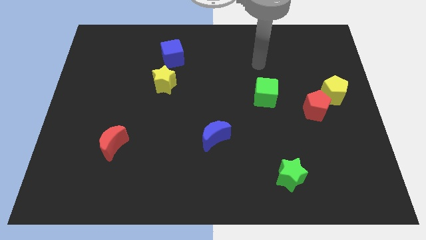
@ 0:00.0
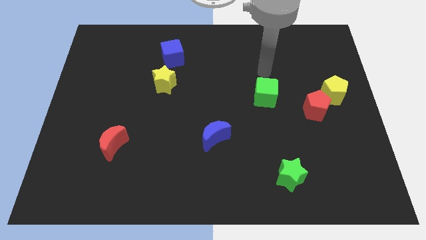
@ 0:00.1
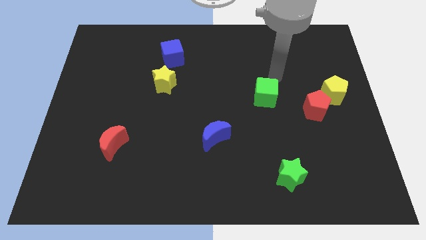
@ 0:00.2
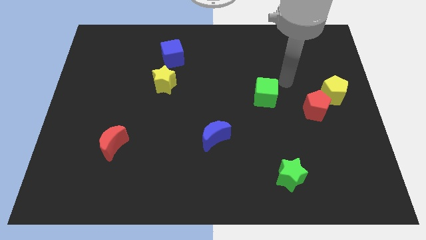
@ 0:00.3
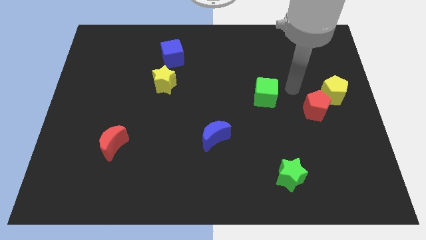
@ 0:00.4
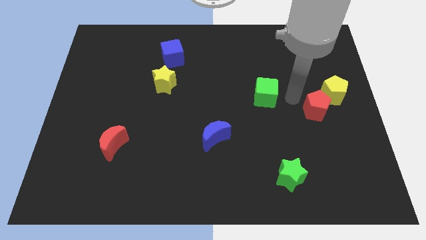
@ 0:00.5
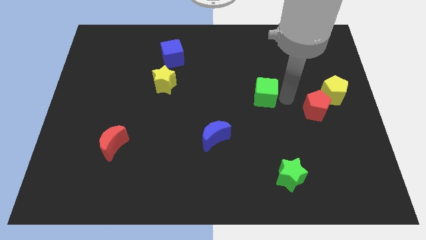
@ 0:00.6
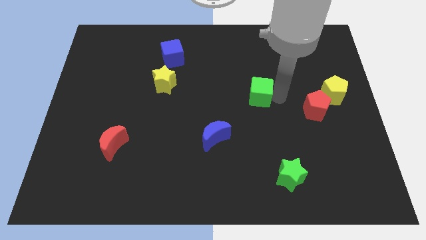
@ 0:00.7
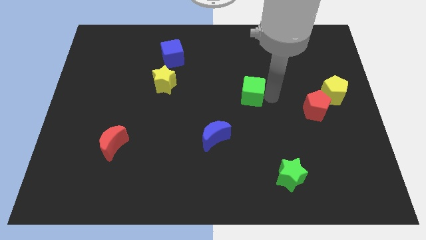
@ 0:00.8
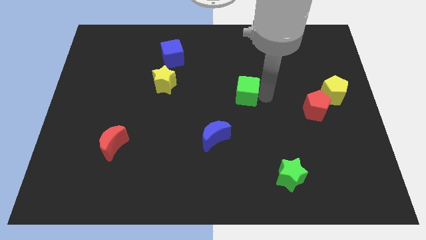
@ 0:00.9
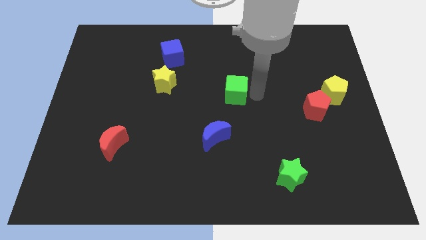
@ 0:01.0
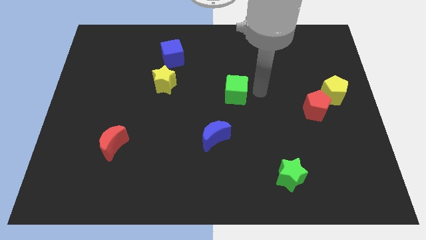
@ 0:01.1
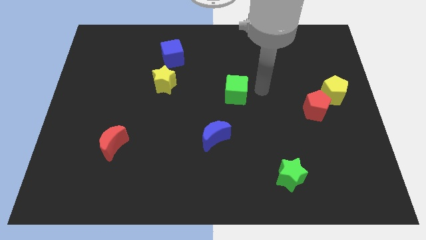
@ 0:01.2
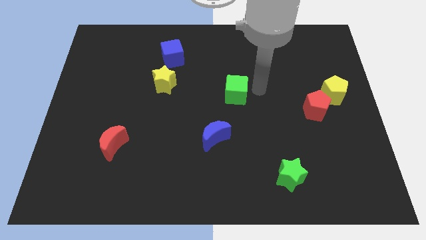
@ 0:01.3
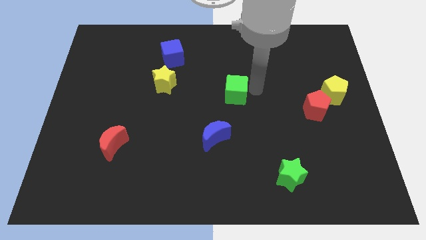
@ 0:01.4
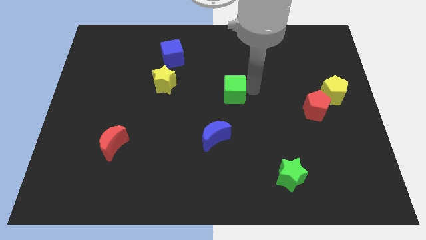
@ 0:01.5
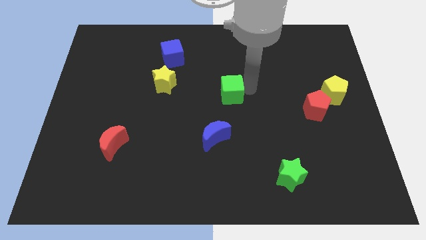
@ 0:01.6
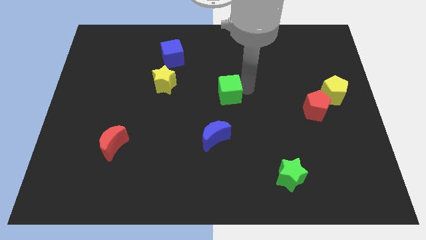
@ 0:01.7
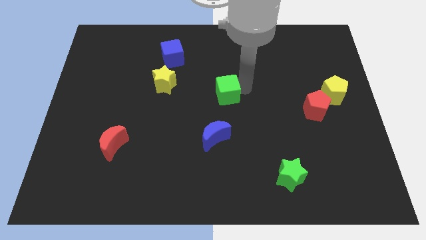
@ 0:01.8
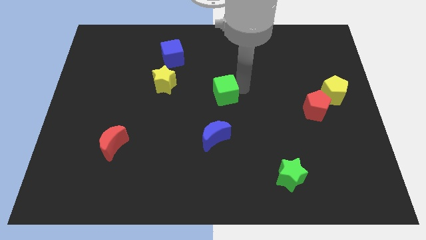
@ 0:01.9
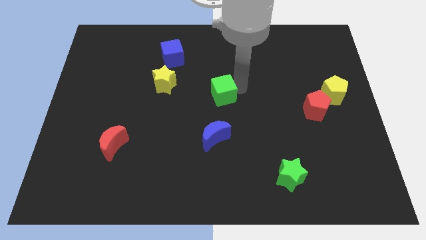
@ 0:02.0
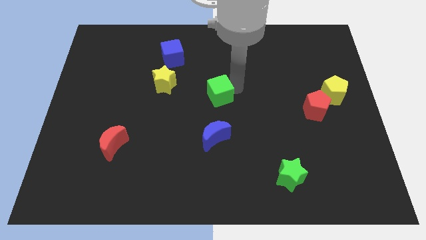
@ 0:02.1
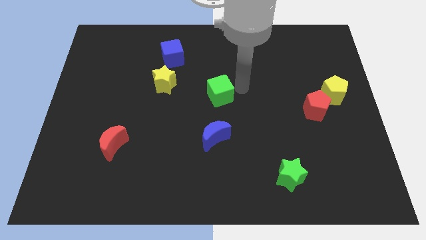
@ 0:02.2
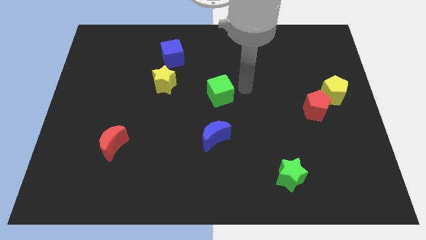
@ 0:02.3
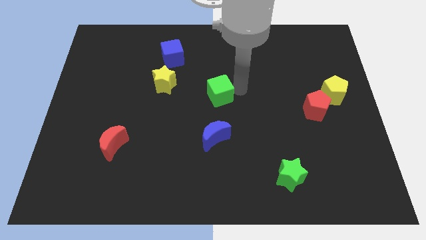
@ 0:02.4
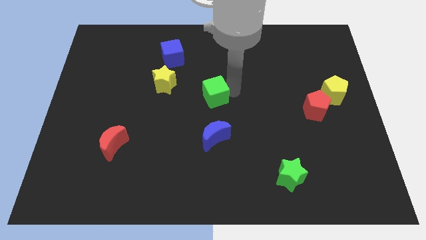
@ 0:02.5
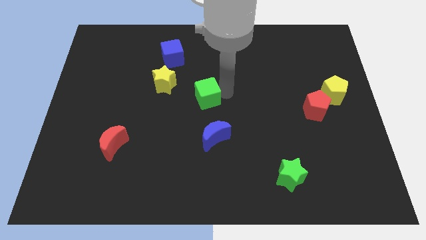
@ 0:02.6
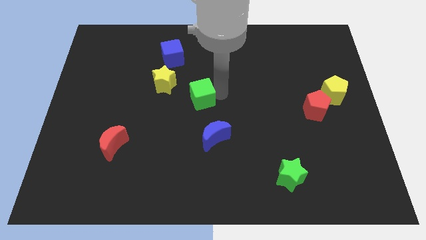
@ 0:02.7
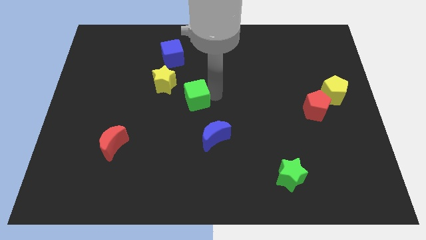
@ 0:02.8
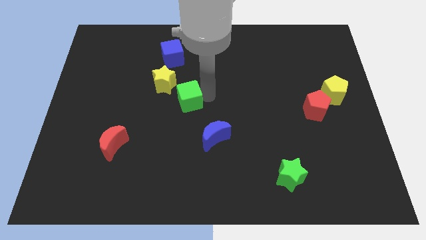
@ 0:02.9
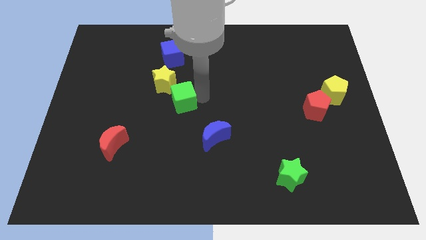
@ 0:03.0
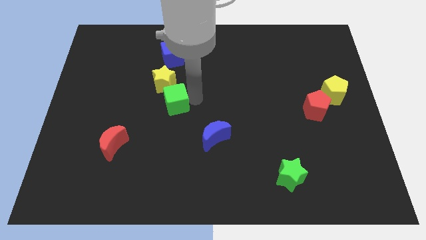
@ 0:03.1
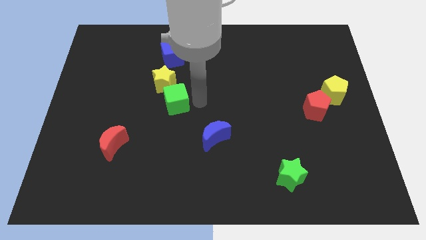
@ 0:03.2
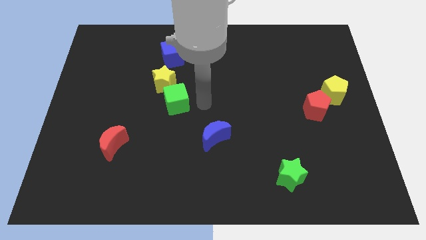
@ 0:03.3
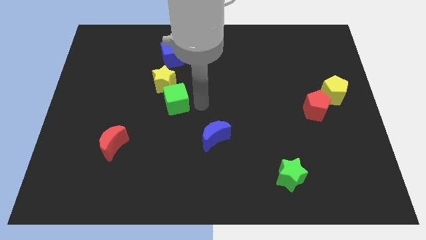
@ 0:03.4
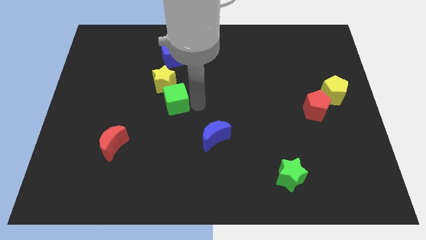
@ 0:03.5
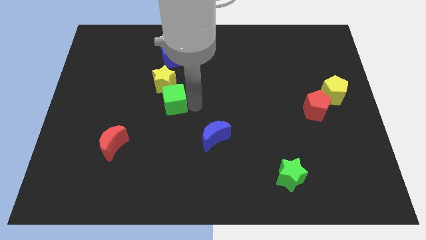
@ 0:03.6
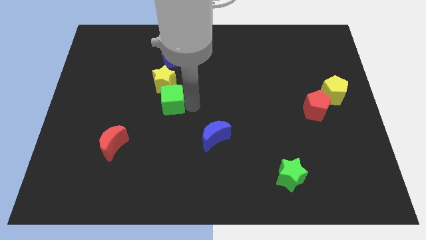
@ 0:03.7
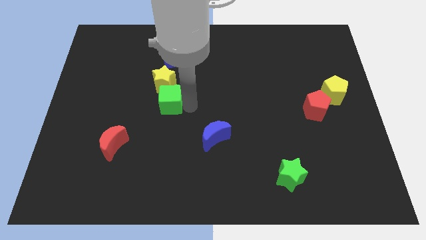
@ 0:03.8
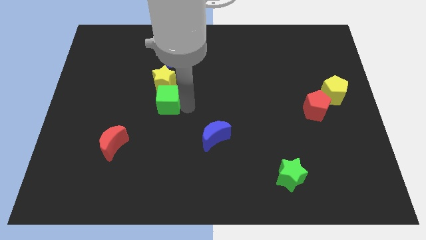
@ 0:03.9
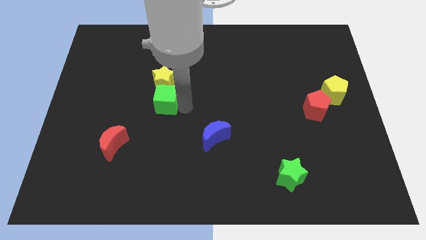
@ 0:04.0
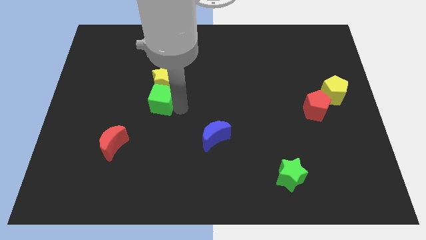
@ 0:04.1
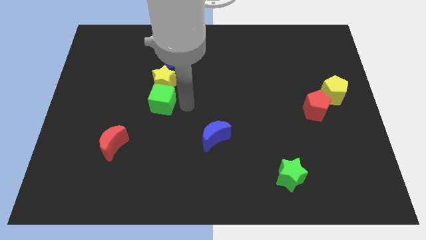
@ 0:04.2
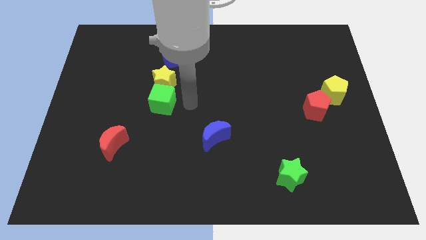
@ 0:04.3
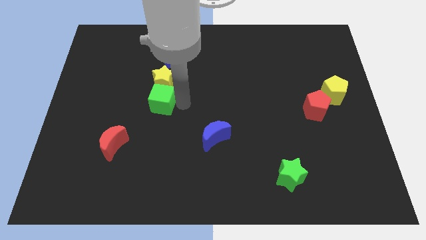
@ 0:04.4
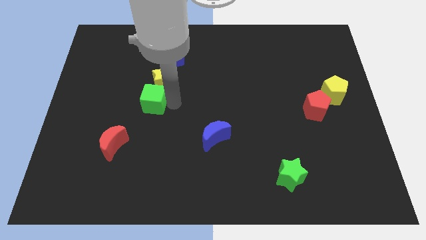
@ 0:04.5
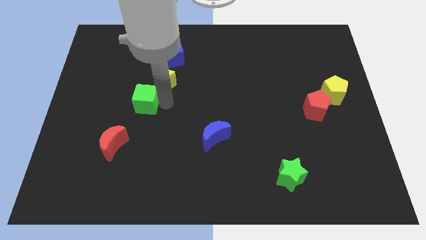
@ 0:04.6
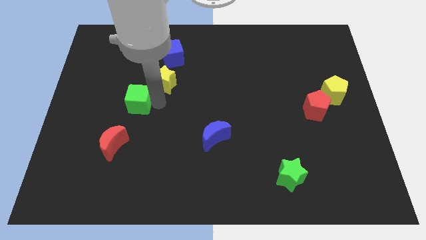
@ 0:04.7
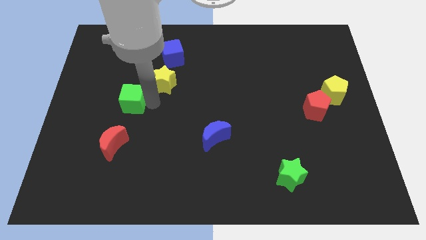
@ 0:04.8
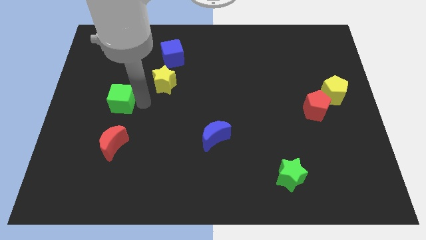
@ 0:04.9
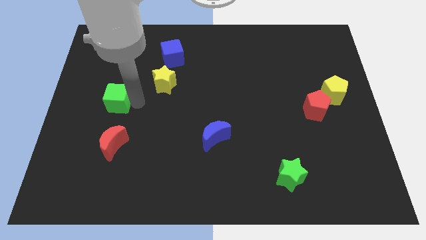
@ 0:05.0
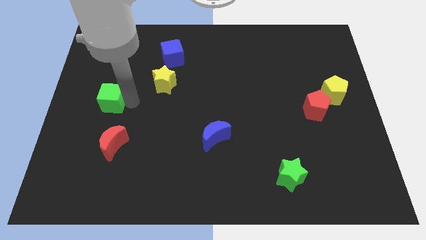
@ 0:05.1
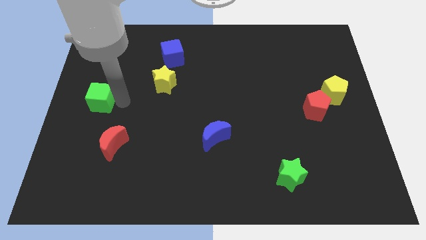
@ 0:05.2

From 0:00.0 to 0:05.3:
slide the green cube to the left side of the board

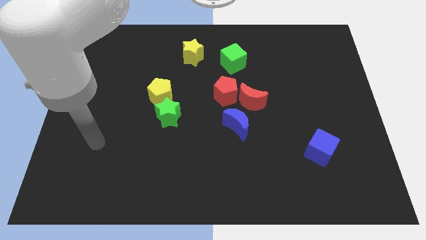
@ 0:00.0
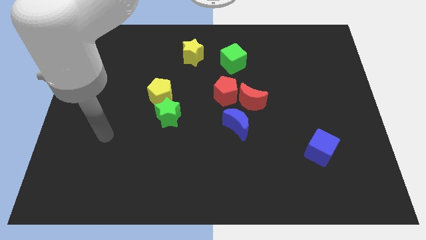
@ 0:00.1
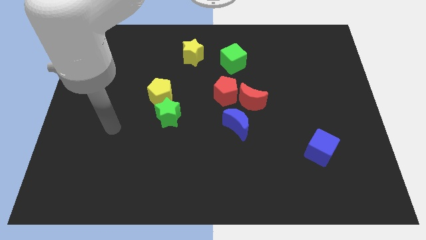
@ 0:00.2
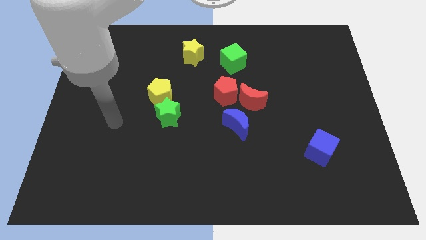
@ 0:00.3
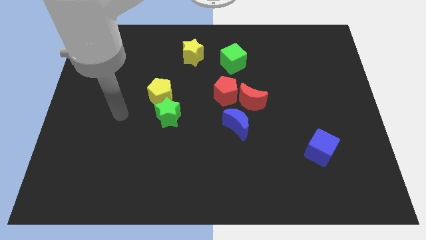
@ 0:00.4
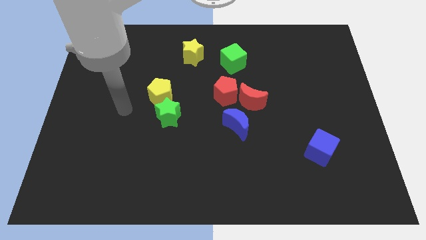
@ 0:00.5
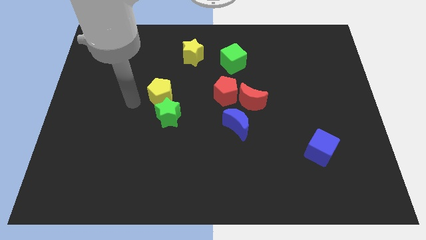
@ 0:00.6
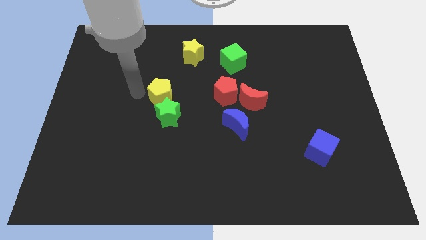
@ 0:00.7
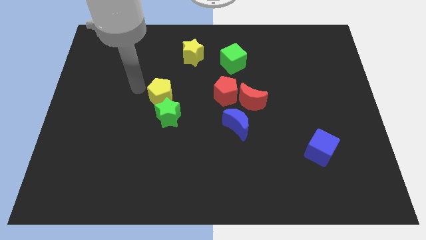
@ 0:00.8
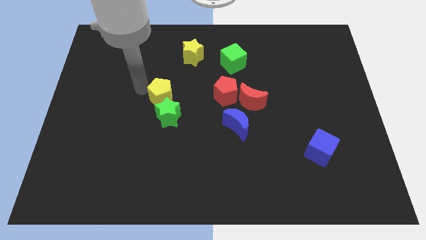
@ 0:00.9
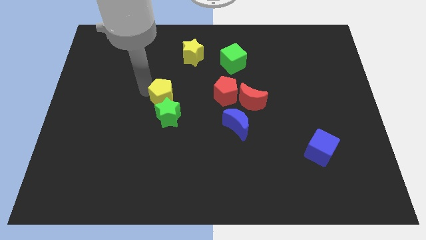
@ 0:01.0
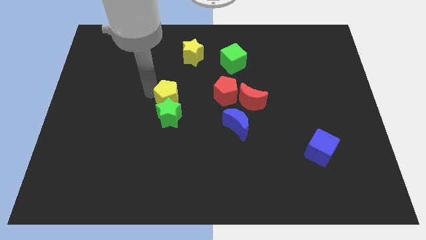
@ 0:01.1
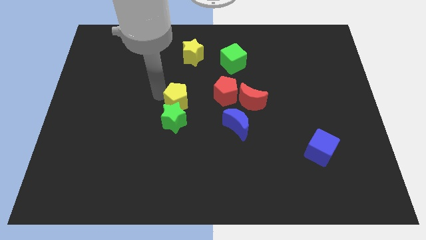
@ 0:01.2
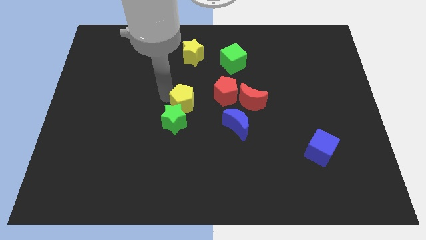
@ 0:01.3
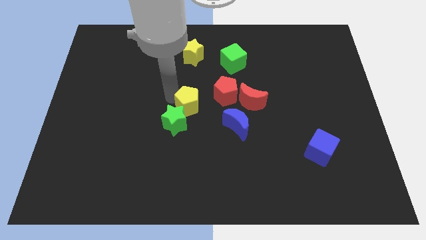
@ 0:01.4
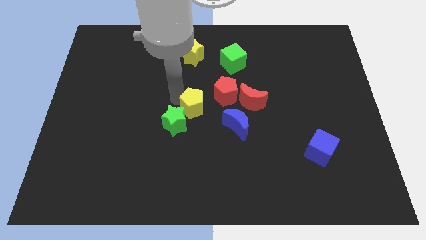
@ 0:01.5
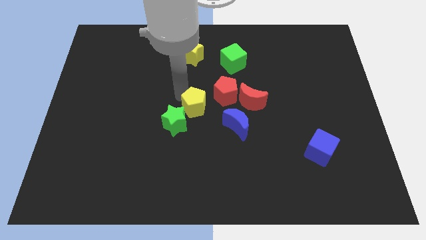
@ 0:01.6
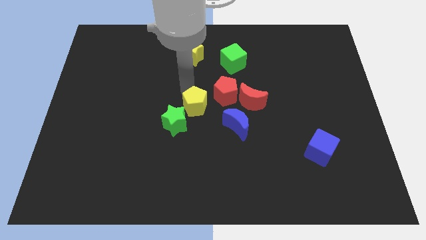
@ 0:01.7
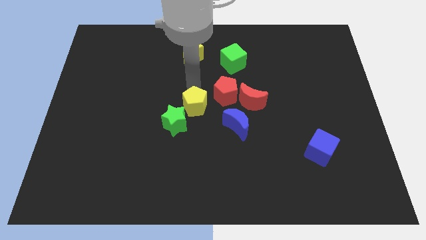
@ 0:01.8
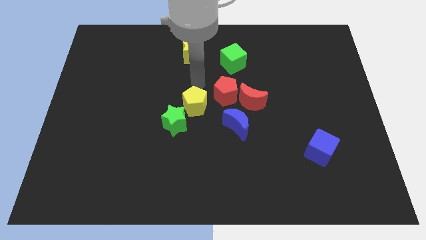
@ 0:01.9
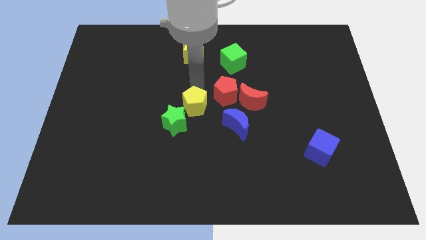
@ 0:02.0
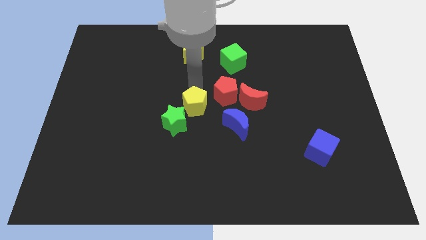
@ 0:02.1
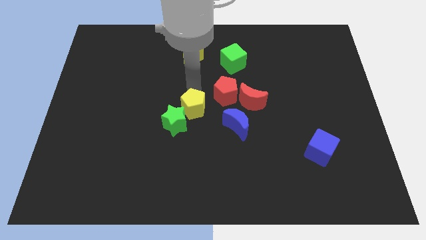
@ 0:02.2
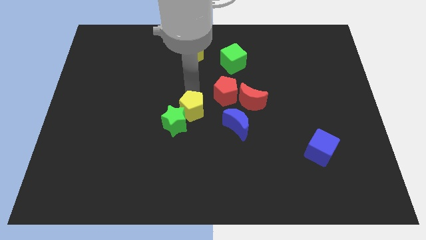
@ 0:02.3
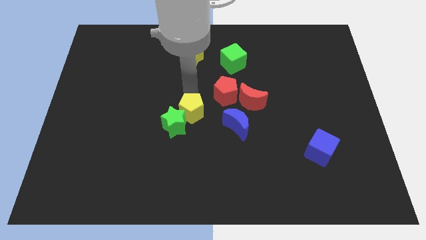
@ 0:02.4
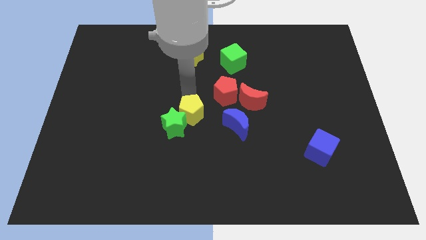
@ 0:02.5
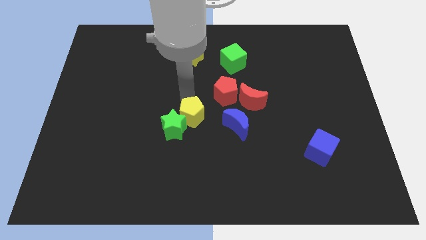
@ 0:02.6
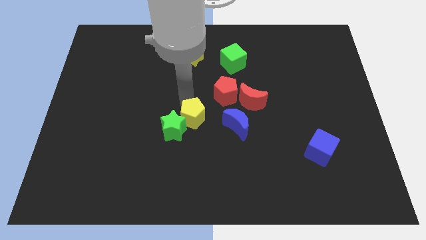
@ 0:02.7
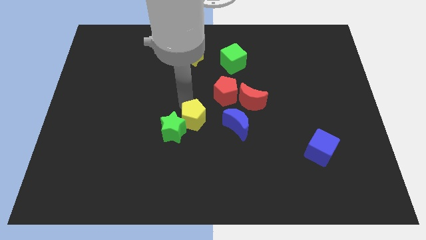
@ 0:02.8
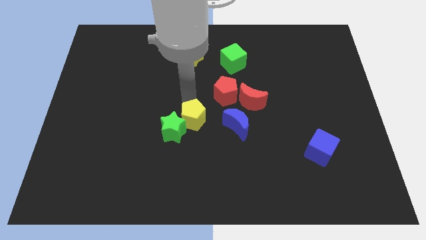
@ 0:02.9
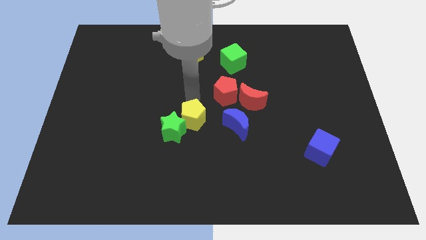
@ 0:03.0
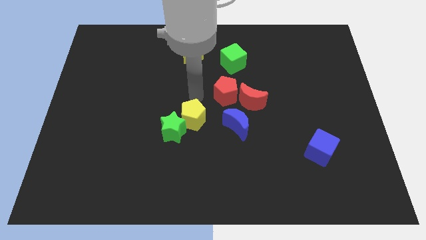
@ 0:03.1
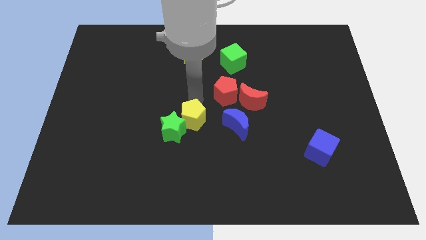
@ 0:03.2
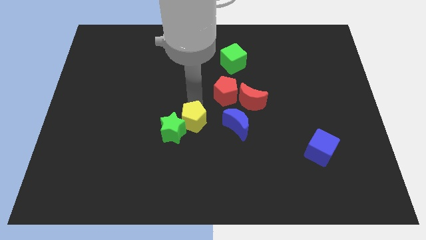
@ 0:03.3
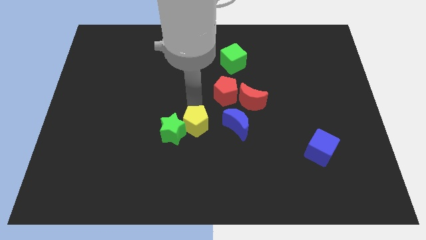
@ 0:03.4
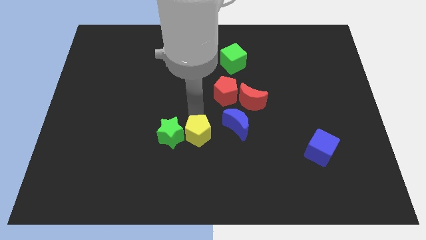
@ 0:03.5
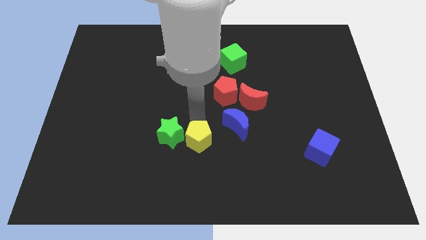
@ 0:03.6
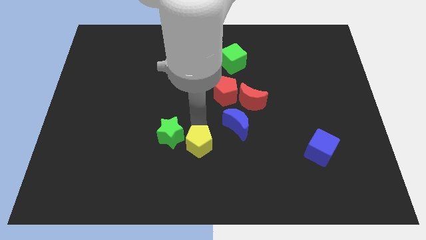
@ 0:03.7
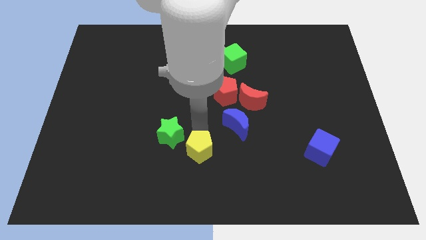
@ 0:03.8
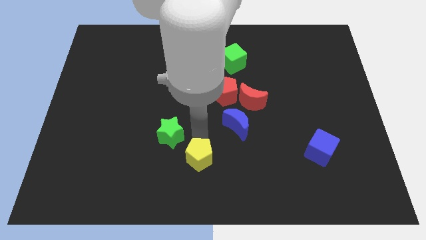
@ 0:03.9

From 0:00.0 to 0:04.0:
put the yellow pentagon to the bottom
